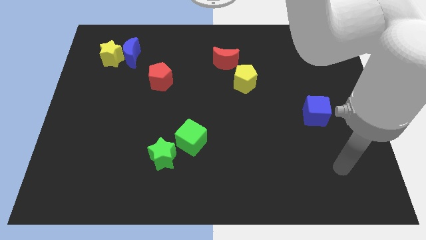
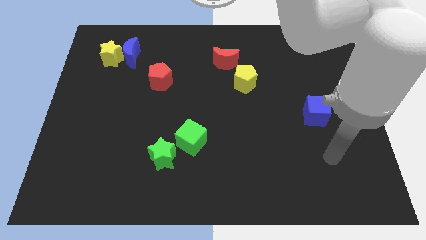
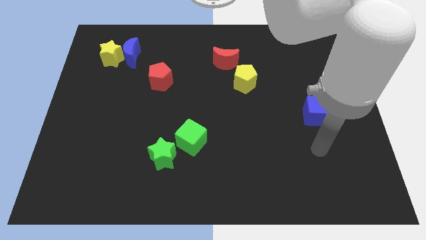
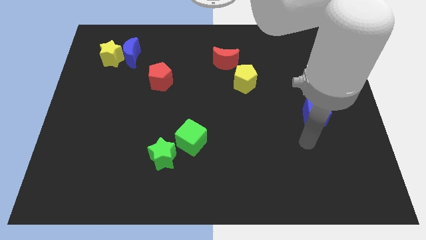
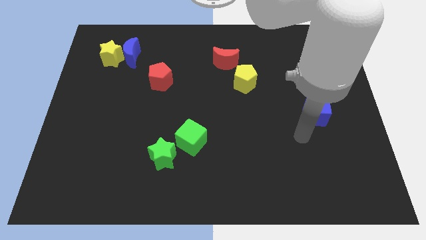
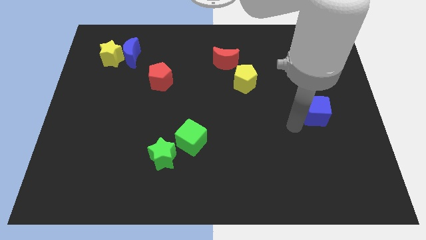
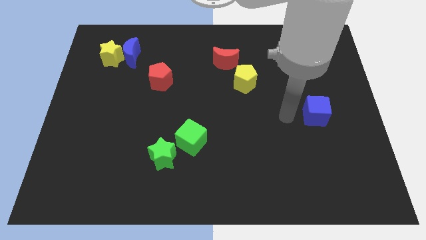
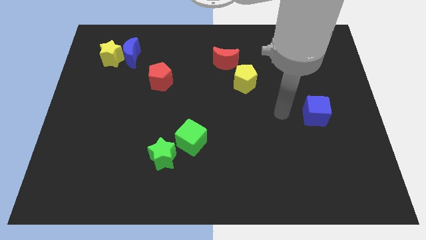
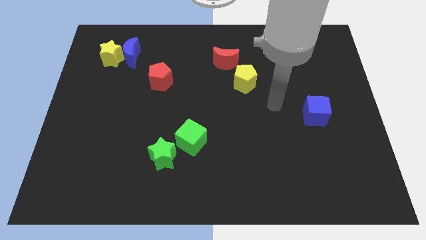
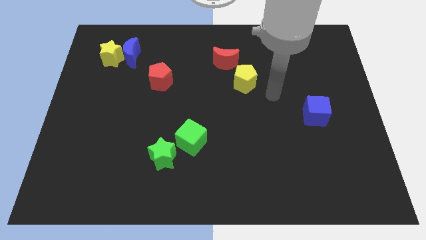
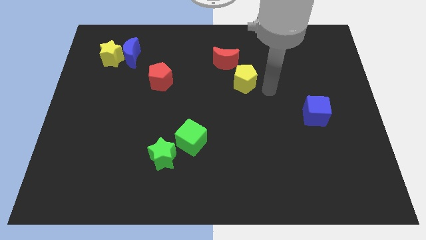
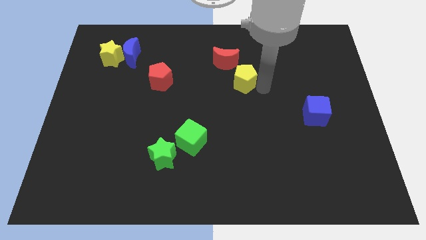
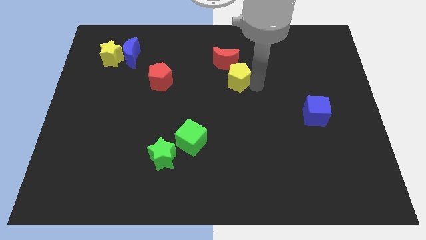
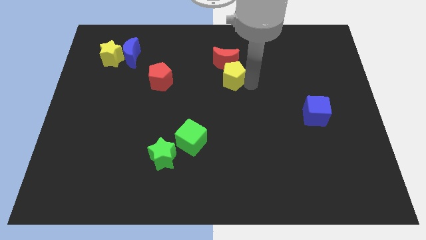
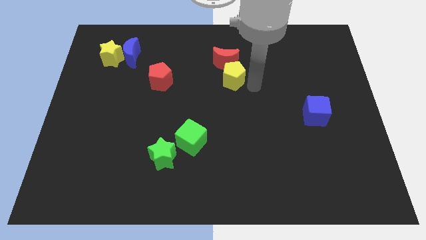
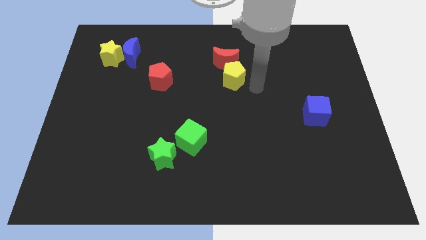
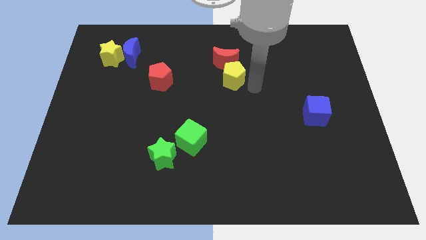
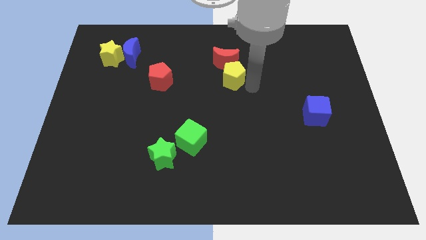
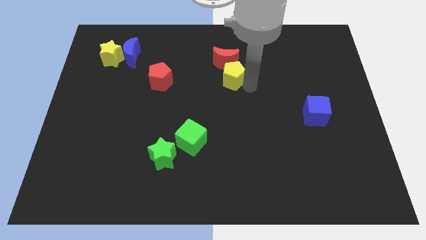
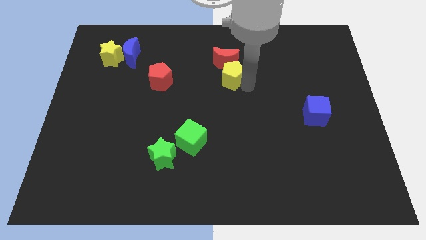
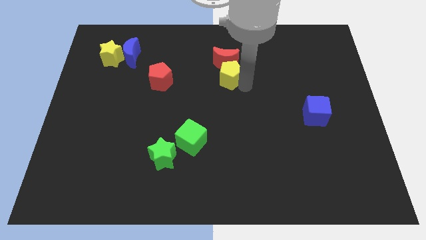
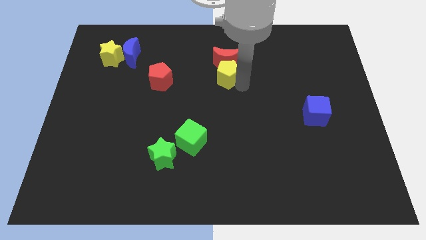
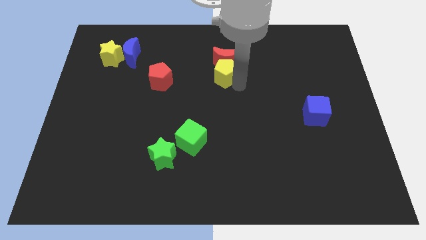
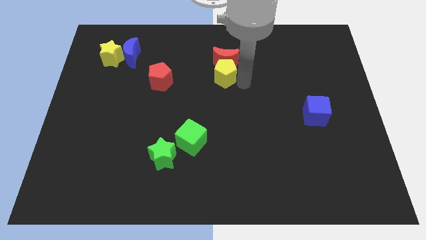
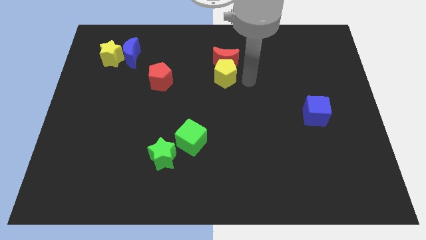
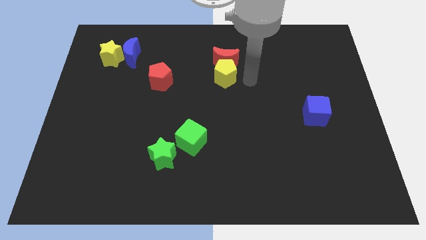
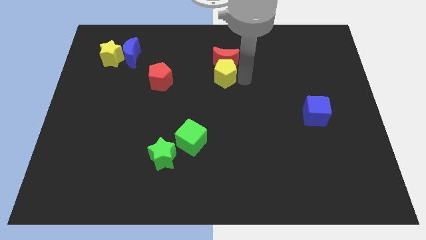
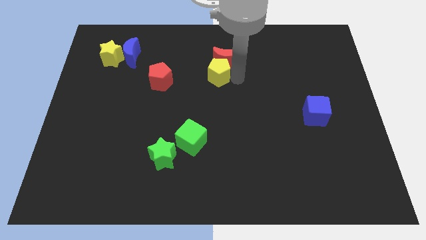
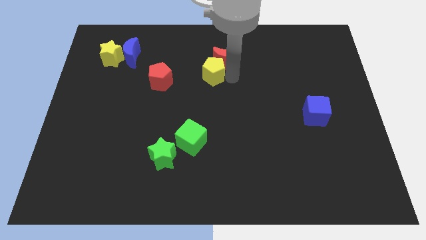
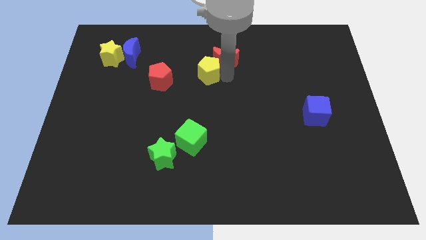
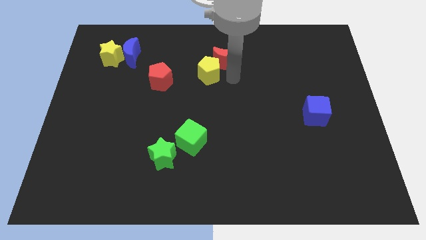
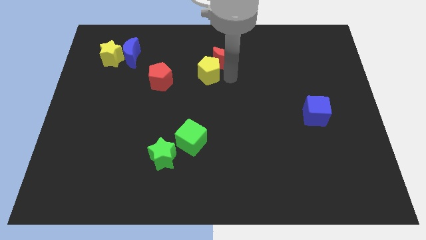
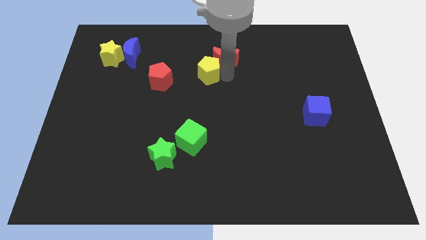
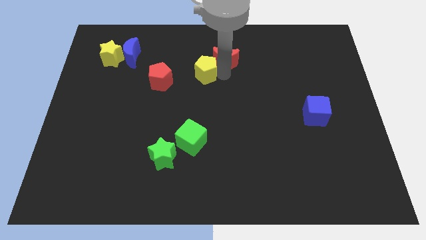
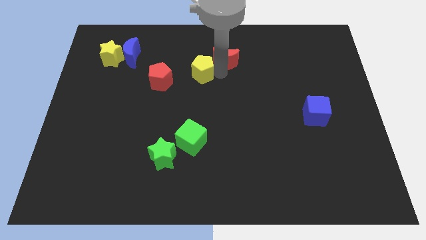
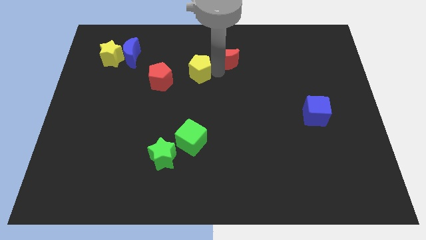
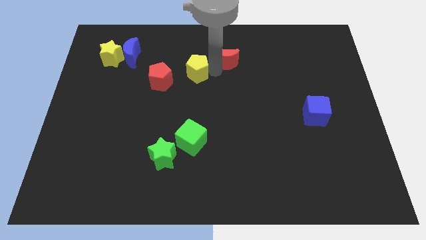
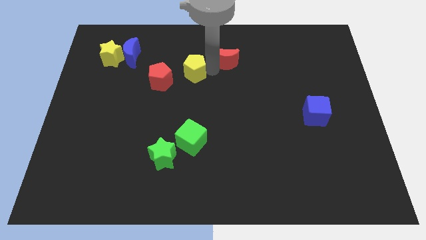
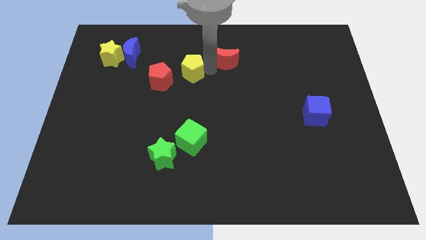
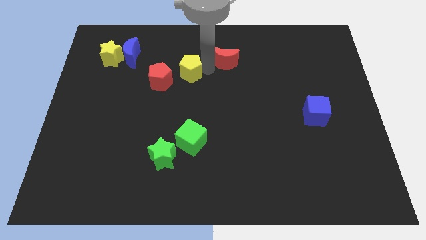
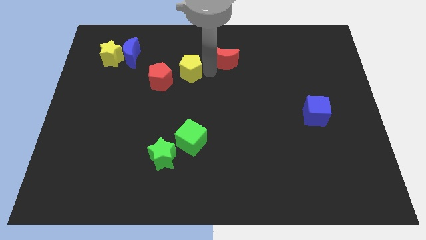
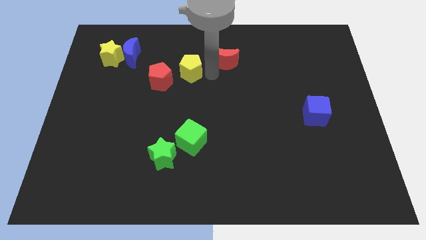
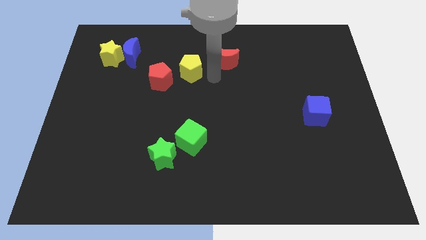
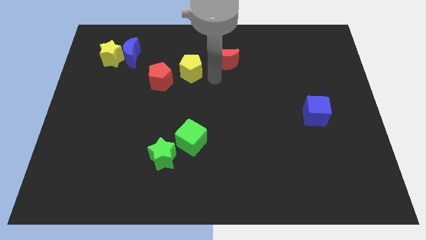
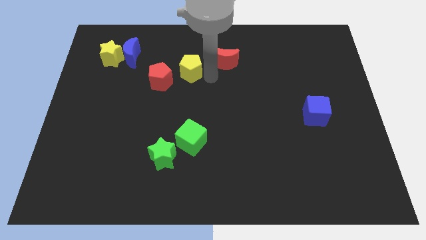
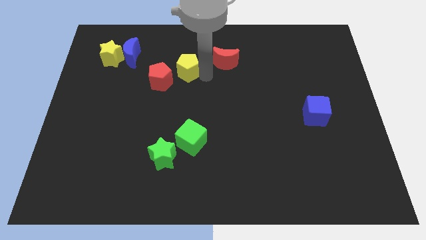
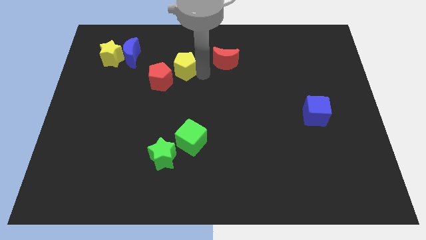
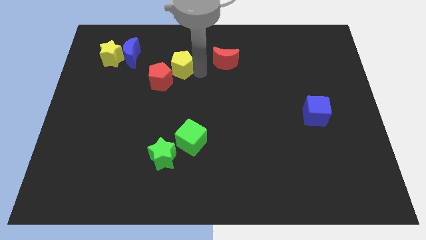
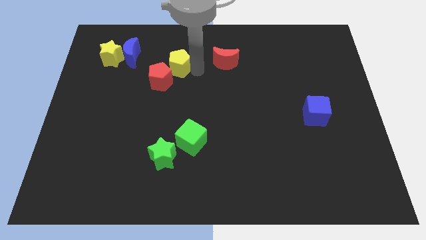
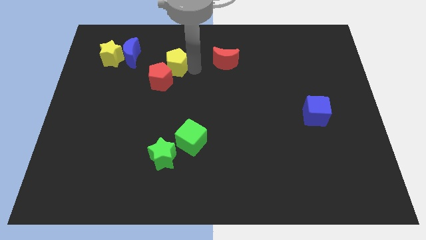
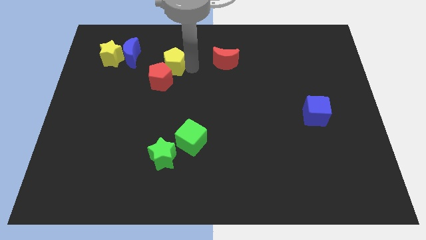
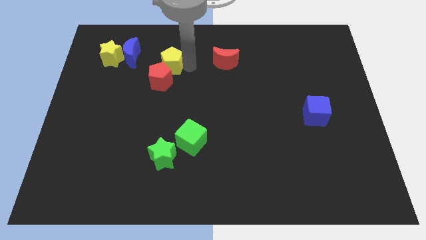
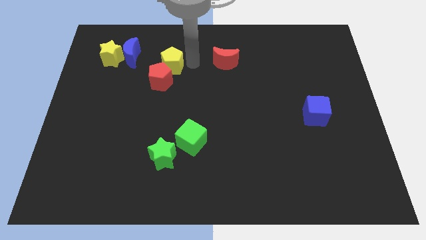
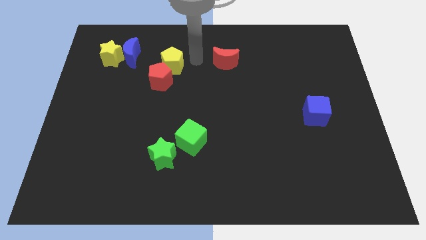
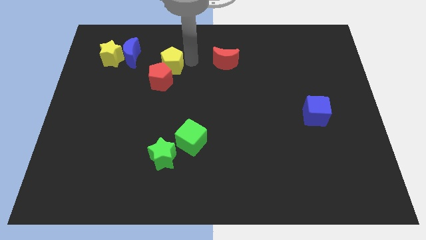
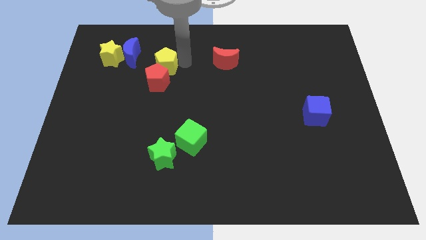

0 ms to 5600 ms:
slide the yellow pentagon diagonally down and to the right of the blue moon

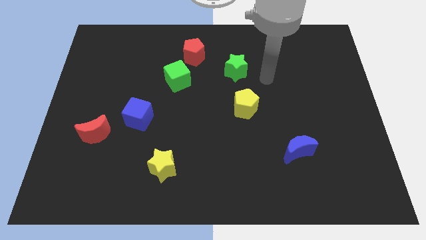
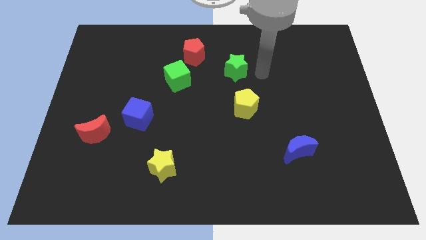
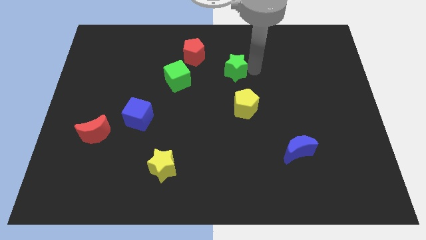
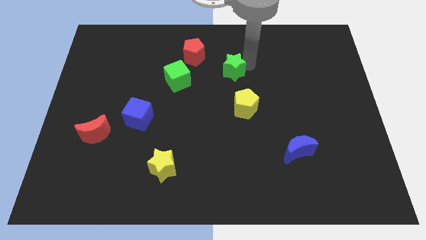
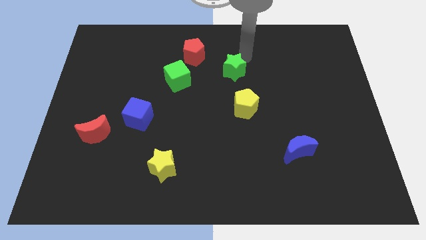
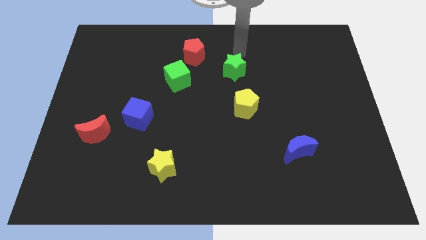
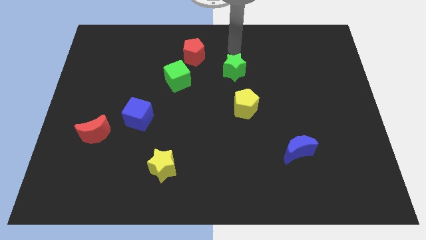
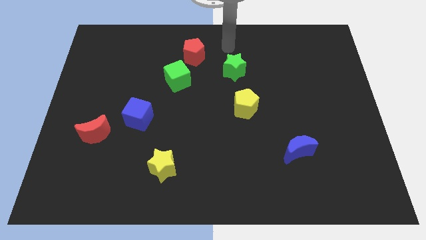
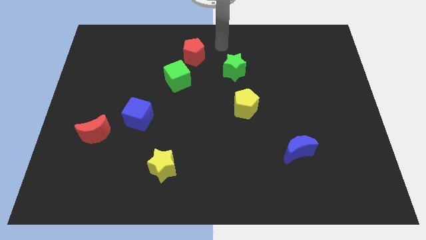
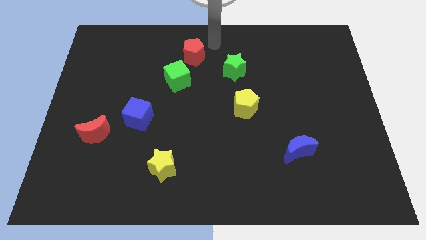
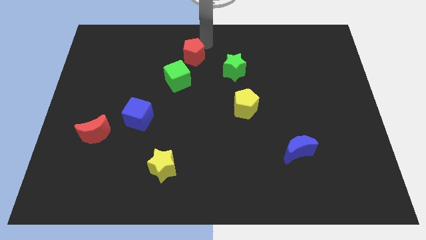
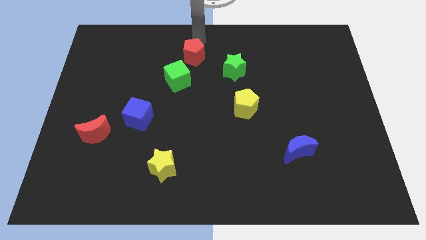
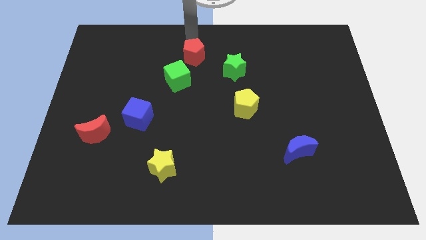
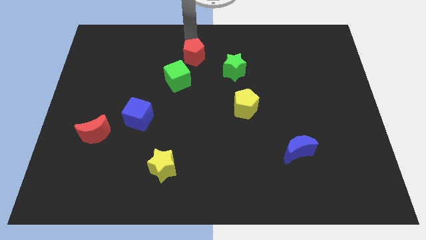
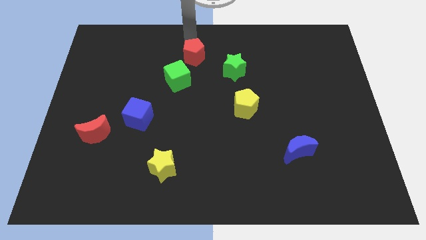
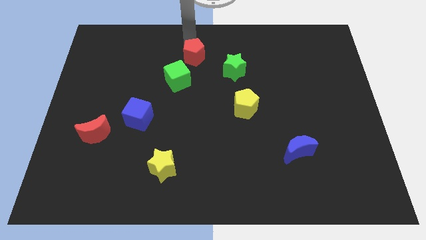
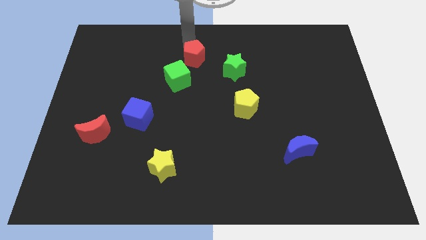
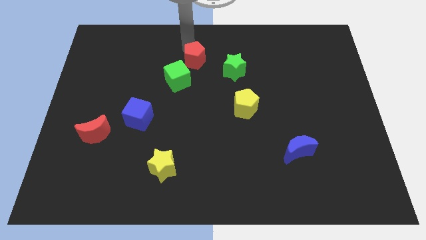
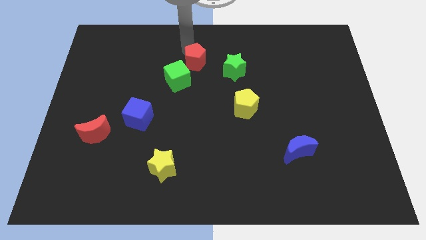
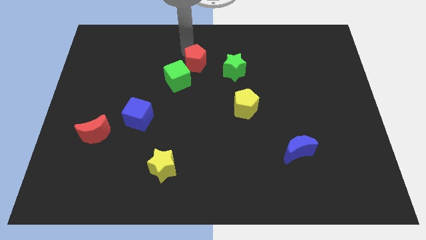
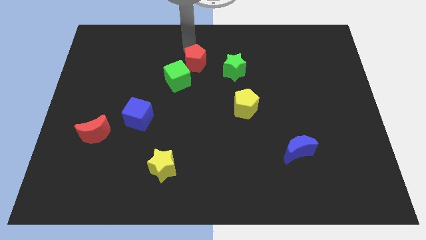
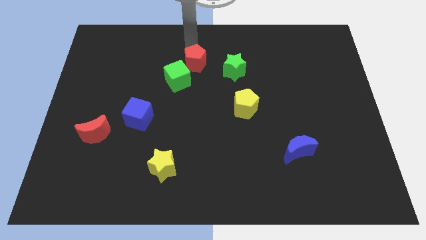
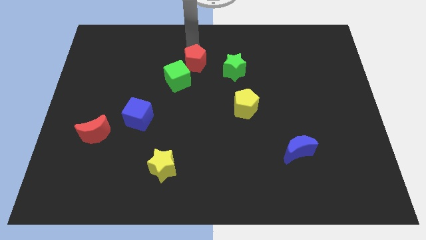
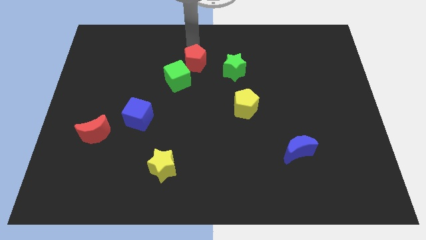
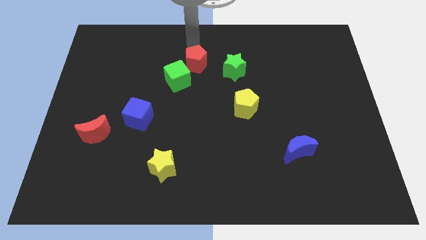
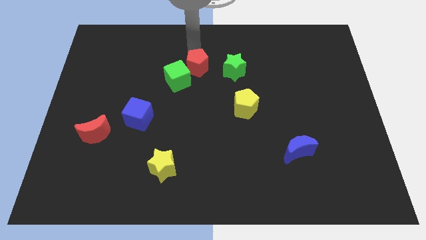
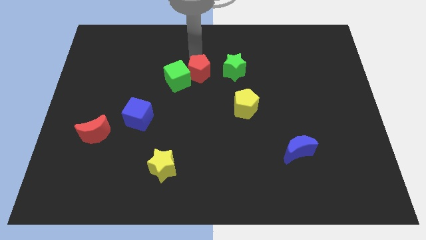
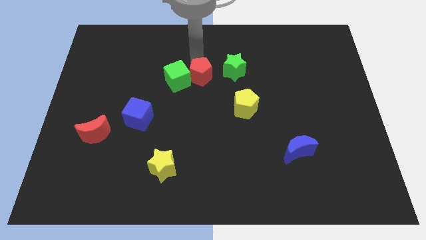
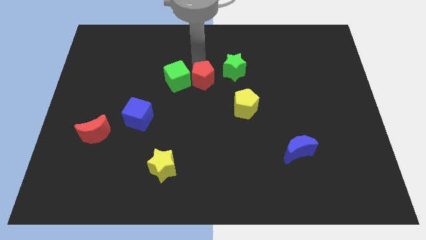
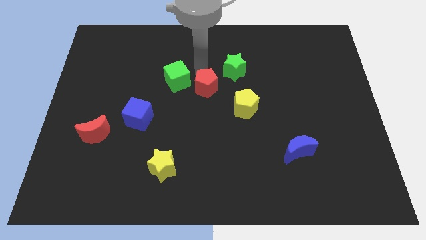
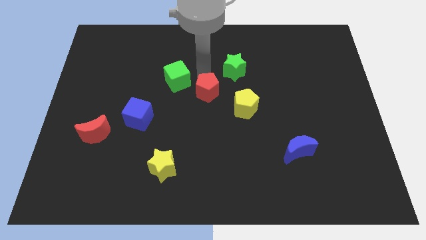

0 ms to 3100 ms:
move the red pentagon to the left of the yellow pentagon
